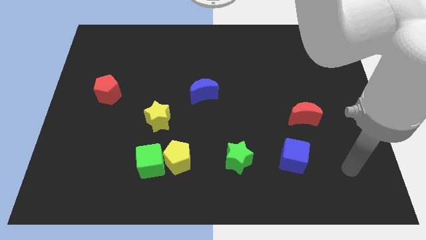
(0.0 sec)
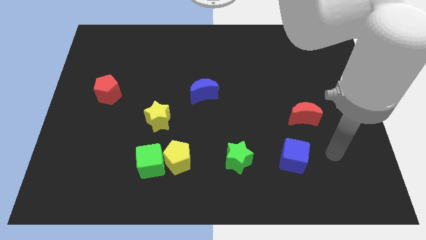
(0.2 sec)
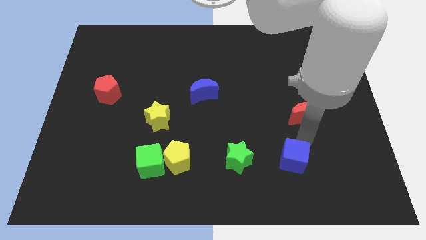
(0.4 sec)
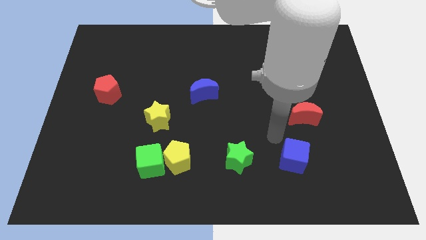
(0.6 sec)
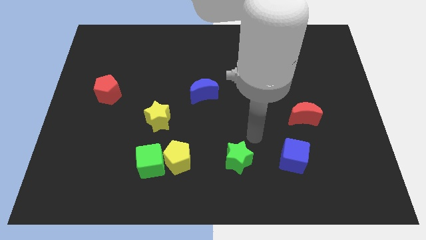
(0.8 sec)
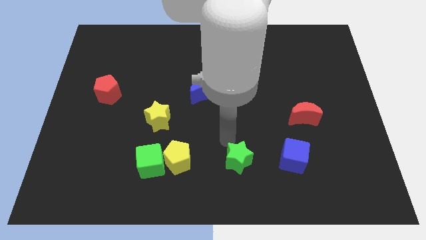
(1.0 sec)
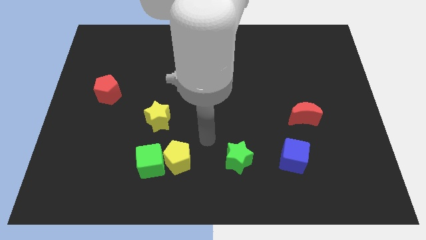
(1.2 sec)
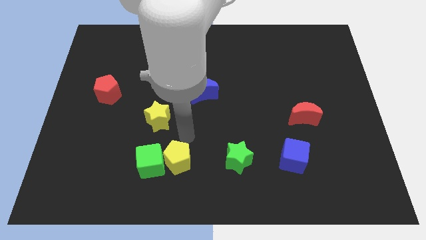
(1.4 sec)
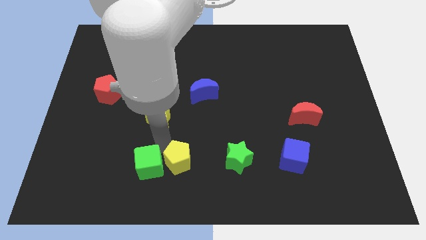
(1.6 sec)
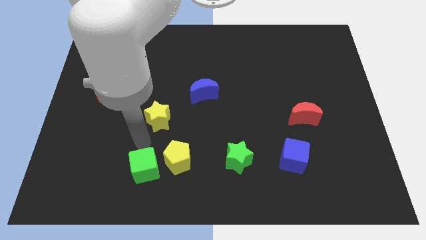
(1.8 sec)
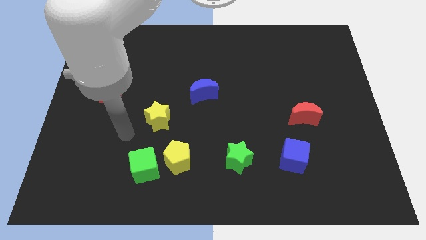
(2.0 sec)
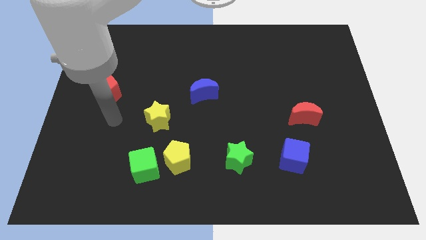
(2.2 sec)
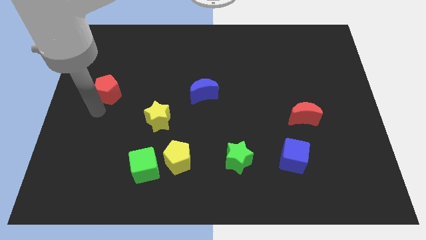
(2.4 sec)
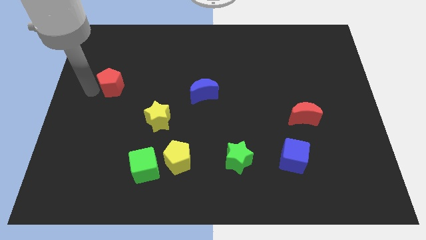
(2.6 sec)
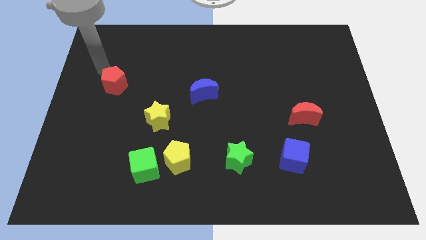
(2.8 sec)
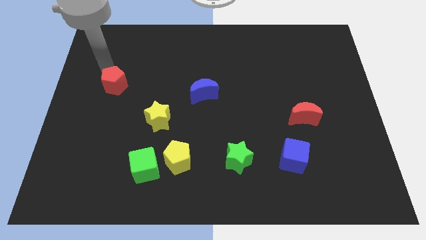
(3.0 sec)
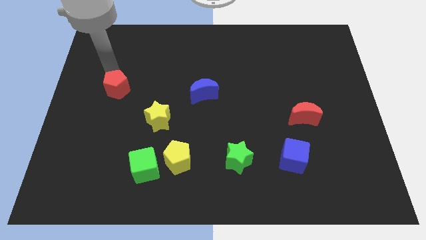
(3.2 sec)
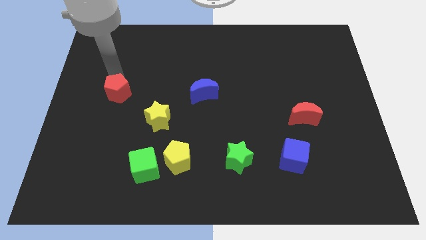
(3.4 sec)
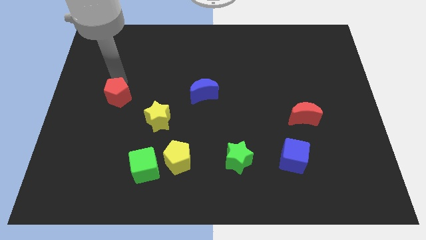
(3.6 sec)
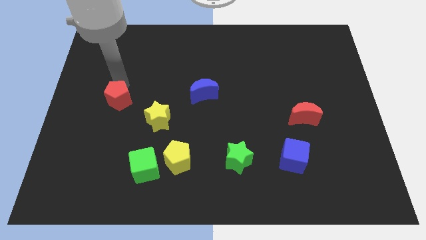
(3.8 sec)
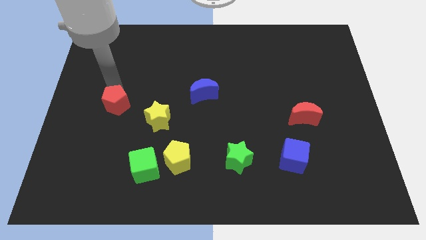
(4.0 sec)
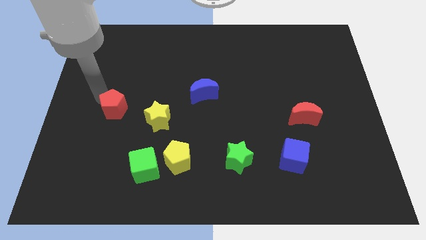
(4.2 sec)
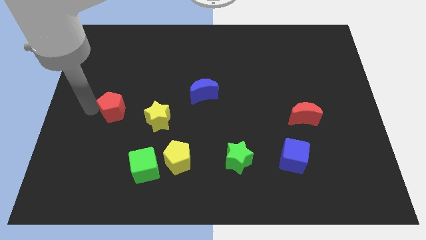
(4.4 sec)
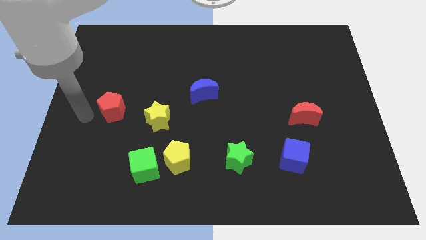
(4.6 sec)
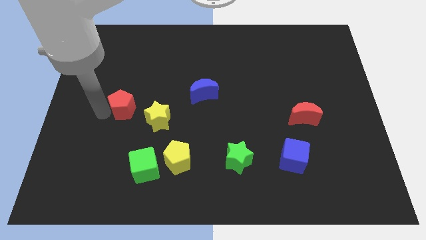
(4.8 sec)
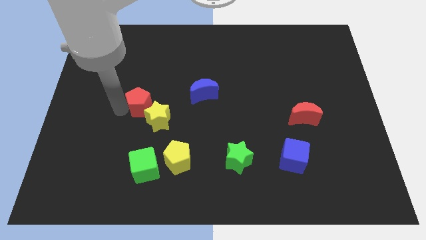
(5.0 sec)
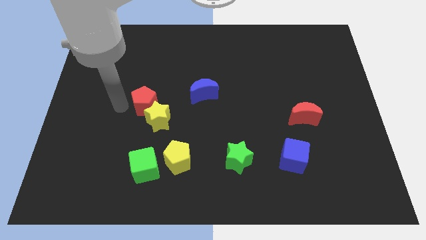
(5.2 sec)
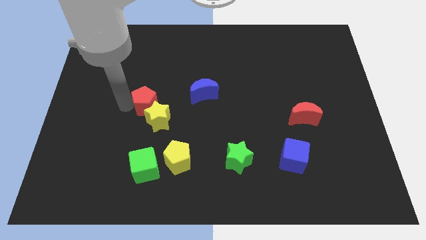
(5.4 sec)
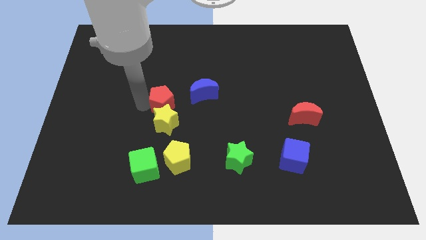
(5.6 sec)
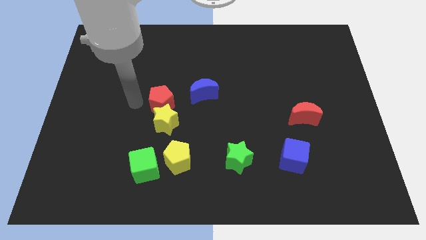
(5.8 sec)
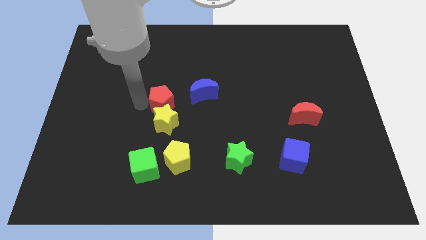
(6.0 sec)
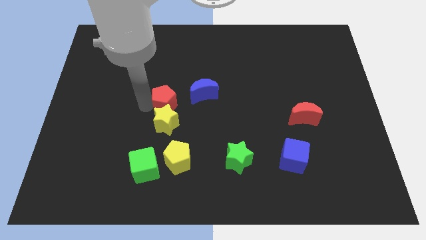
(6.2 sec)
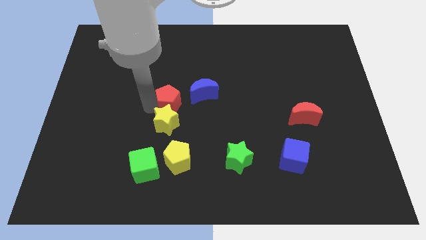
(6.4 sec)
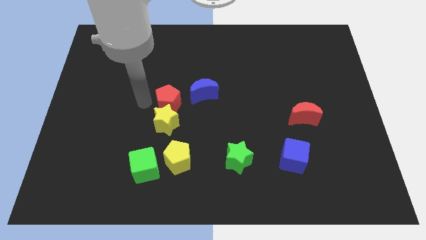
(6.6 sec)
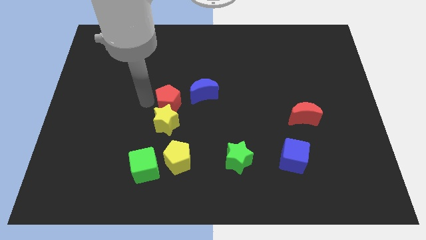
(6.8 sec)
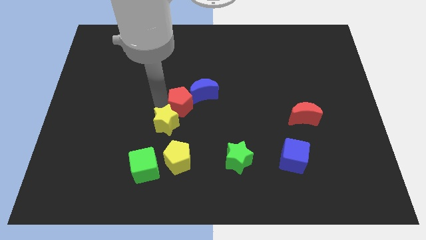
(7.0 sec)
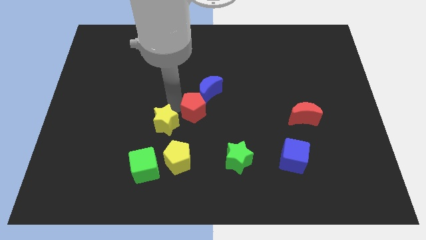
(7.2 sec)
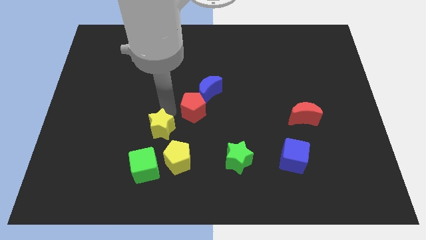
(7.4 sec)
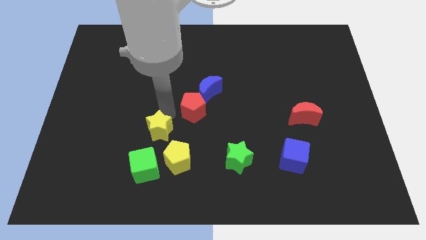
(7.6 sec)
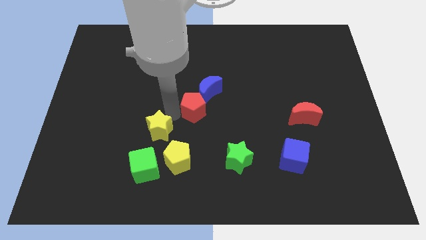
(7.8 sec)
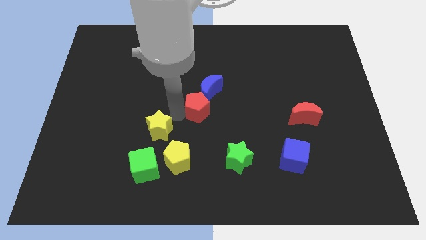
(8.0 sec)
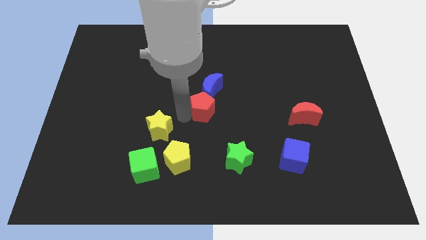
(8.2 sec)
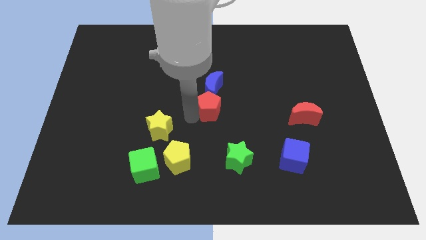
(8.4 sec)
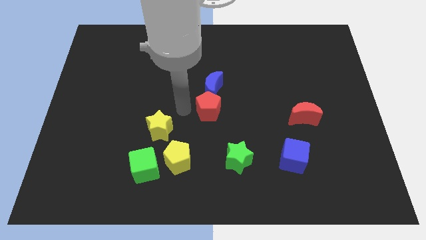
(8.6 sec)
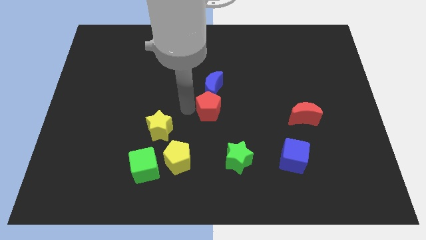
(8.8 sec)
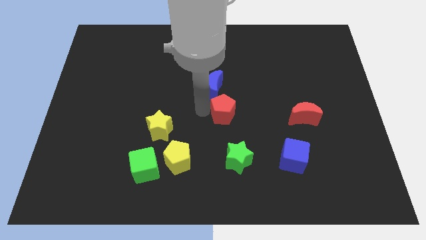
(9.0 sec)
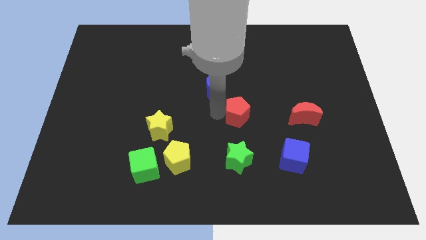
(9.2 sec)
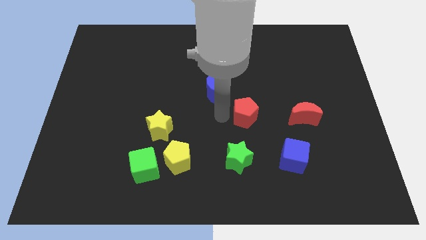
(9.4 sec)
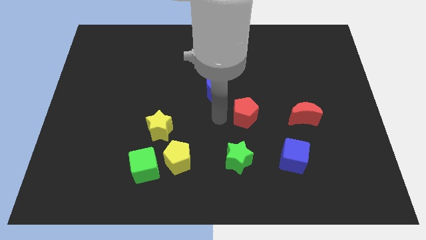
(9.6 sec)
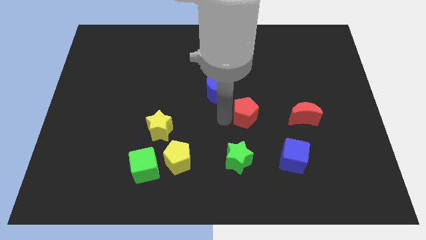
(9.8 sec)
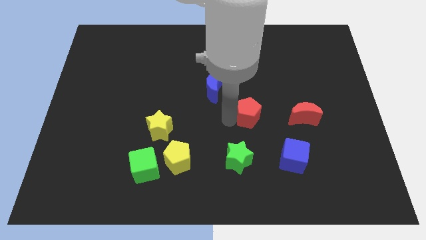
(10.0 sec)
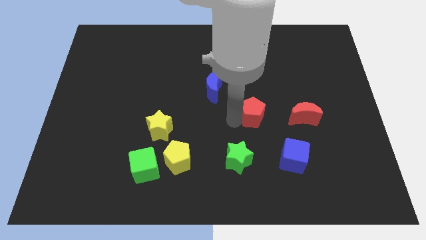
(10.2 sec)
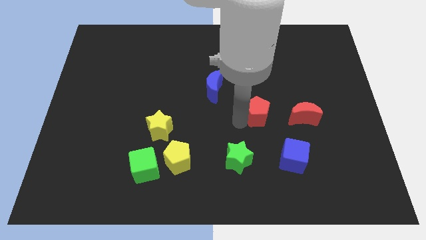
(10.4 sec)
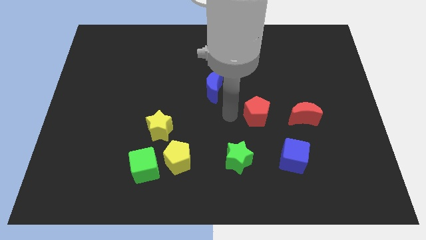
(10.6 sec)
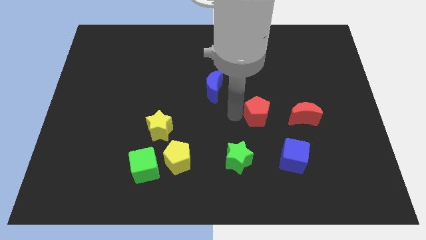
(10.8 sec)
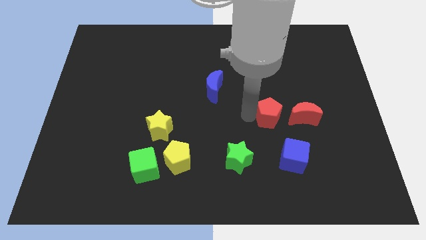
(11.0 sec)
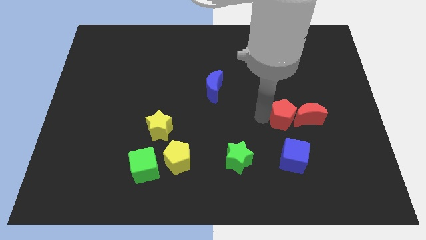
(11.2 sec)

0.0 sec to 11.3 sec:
slide the red pentagon towards the red moon

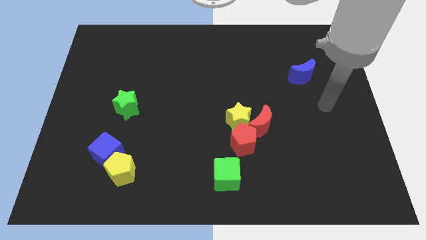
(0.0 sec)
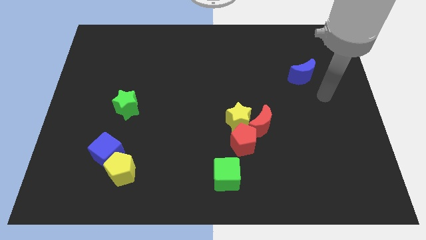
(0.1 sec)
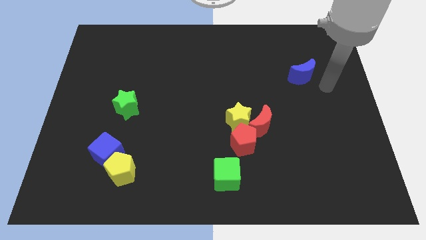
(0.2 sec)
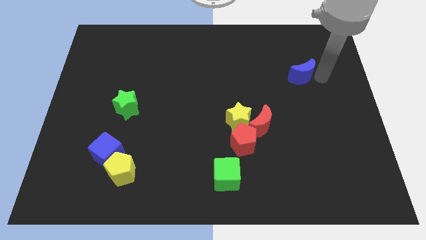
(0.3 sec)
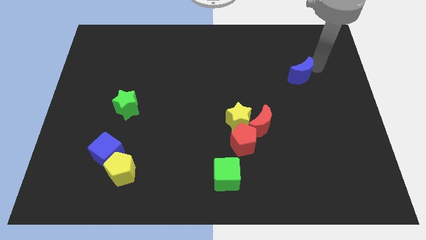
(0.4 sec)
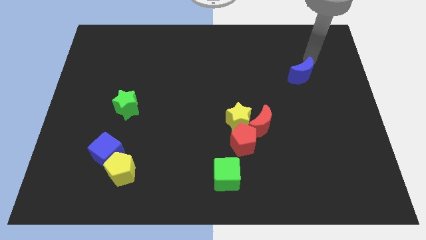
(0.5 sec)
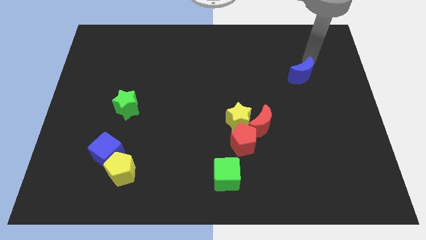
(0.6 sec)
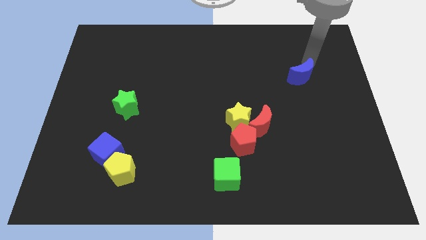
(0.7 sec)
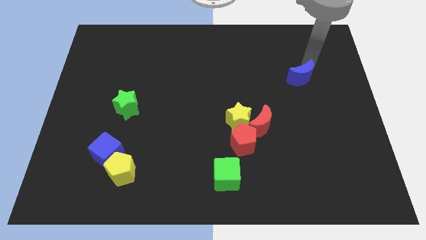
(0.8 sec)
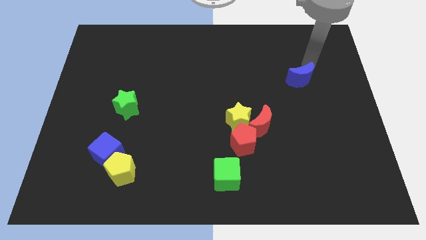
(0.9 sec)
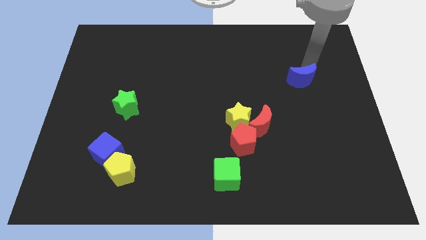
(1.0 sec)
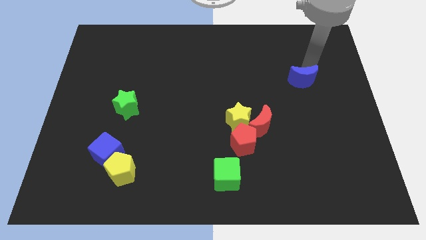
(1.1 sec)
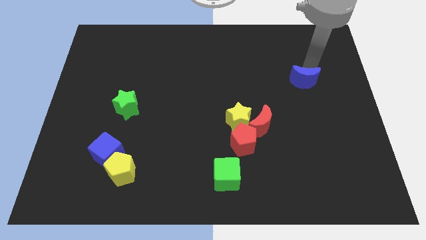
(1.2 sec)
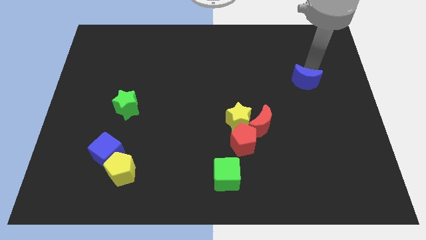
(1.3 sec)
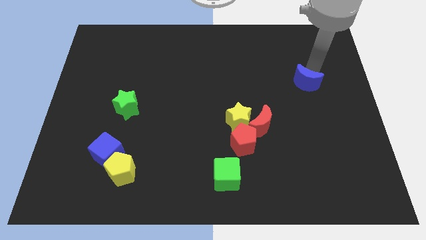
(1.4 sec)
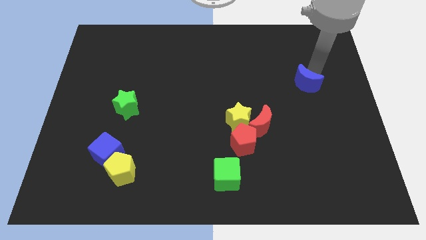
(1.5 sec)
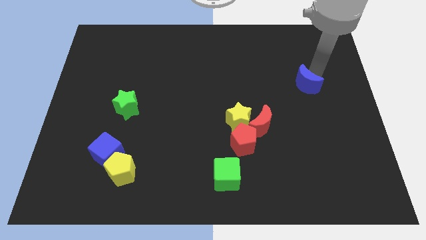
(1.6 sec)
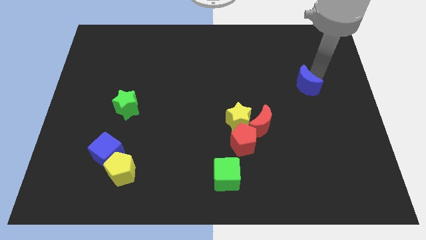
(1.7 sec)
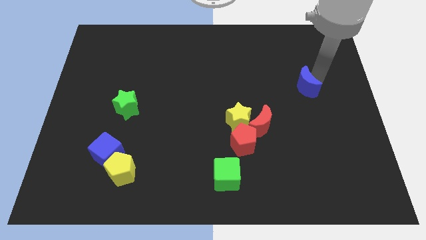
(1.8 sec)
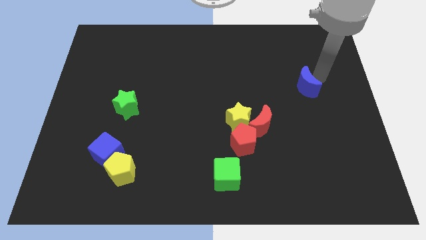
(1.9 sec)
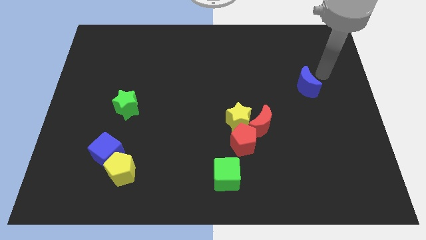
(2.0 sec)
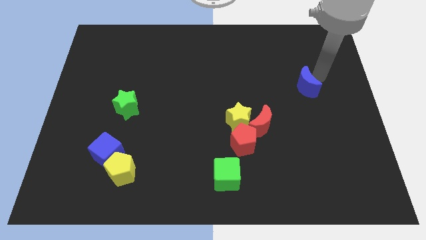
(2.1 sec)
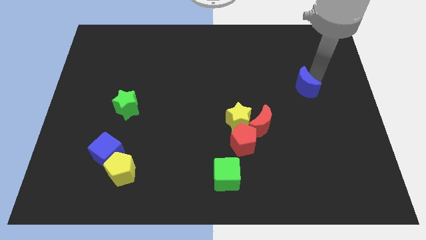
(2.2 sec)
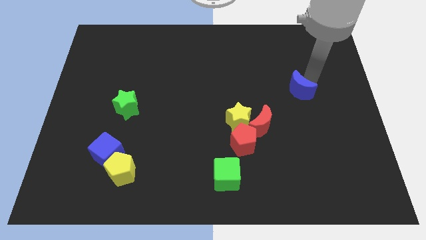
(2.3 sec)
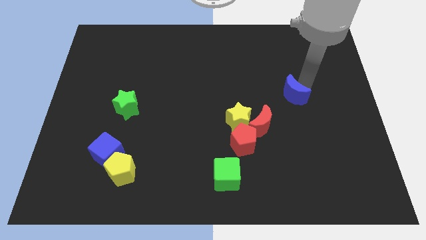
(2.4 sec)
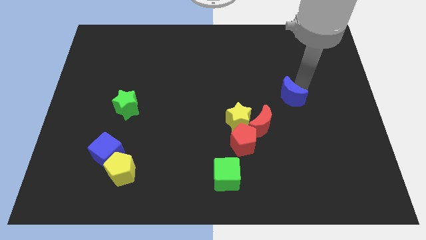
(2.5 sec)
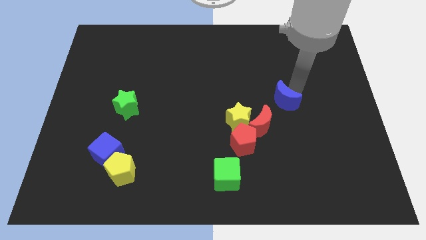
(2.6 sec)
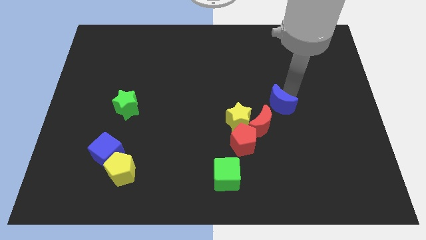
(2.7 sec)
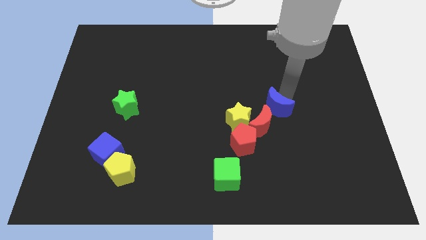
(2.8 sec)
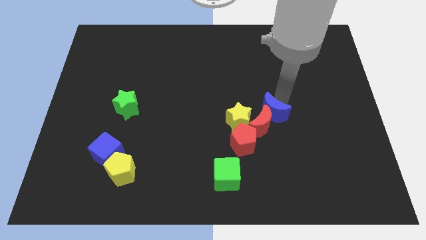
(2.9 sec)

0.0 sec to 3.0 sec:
slide the blue moon next to the red moon
